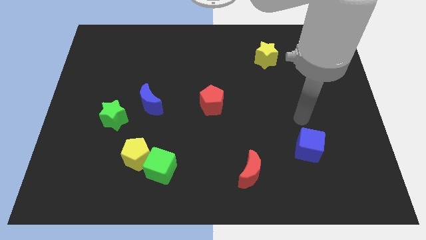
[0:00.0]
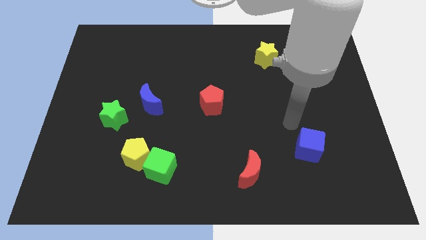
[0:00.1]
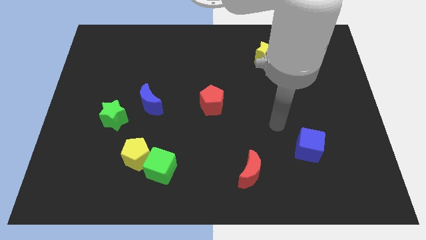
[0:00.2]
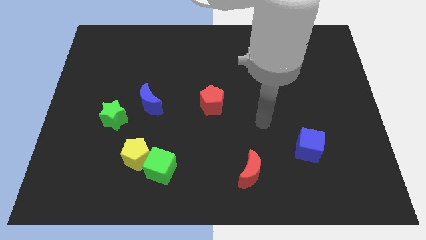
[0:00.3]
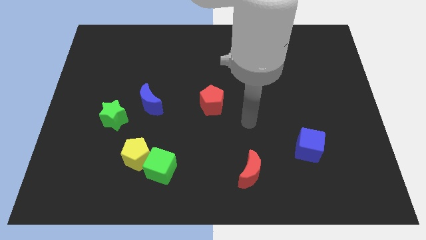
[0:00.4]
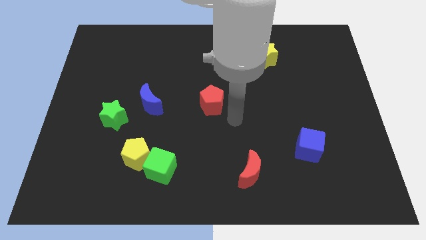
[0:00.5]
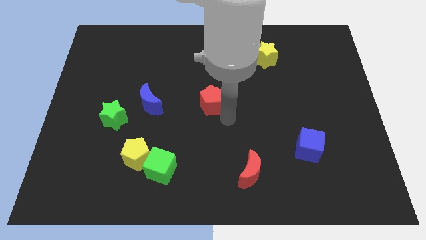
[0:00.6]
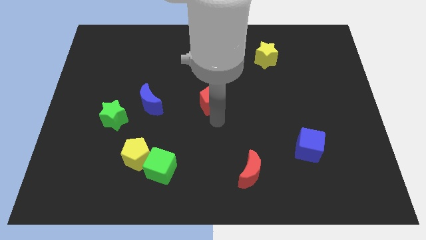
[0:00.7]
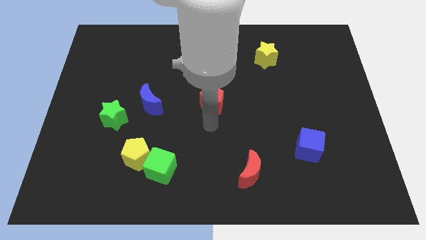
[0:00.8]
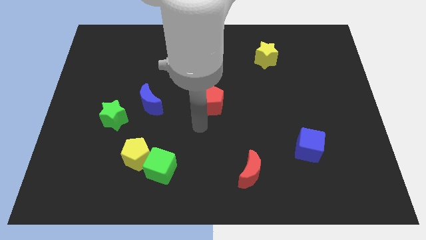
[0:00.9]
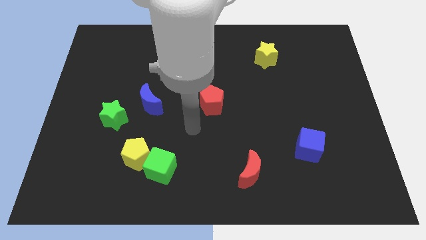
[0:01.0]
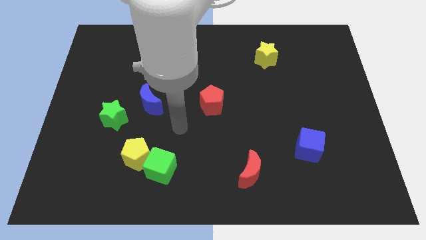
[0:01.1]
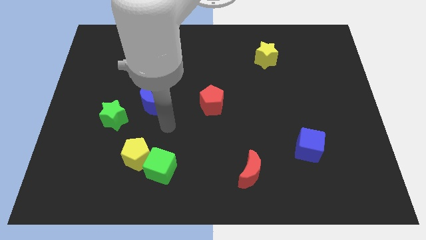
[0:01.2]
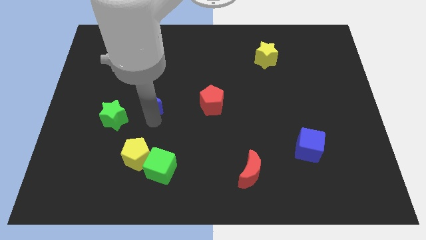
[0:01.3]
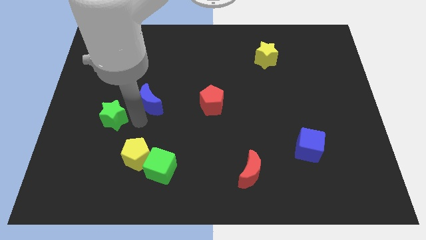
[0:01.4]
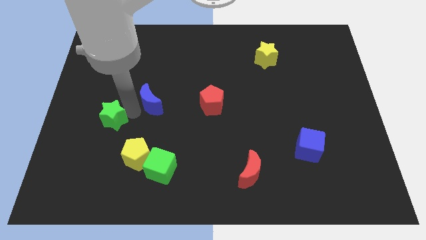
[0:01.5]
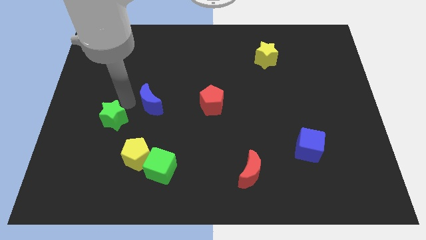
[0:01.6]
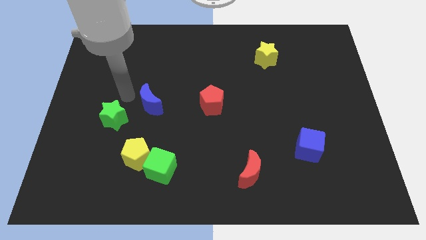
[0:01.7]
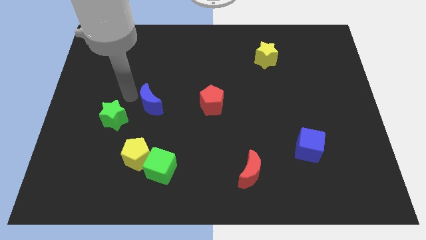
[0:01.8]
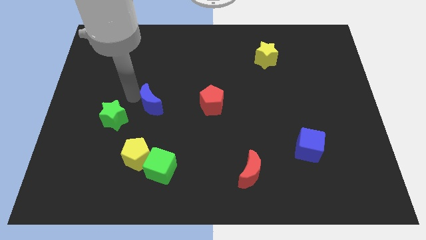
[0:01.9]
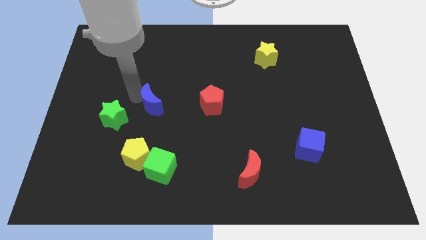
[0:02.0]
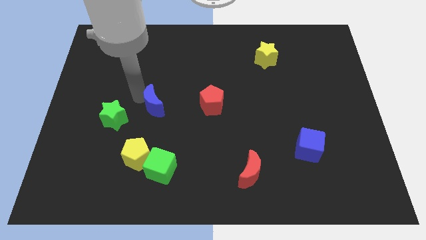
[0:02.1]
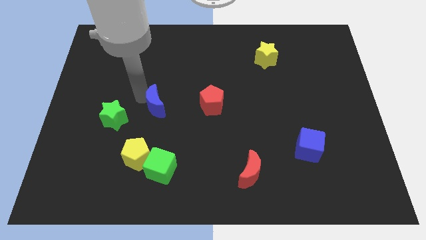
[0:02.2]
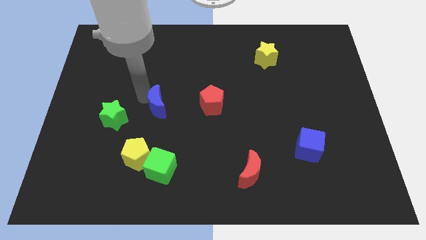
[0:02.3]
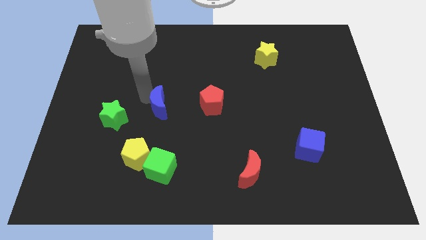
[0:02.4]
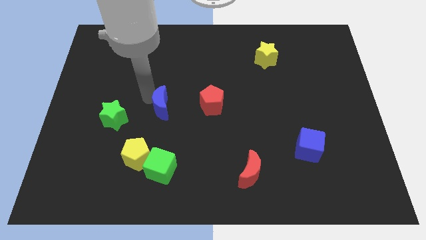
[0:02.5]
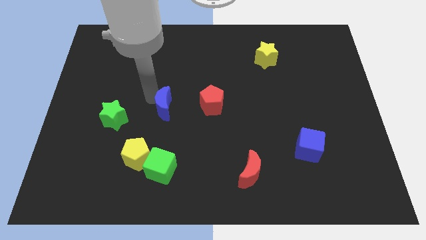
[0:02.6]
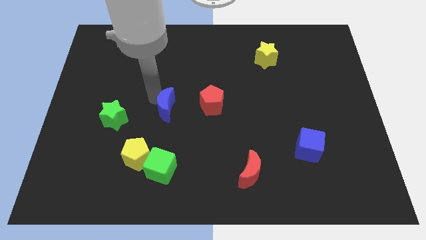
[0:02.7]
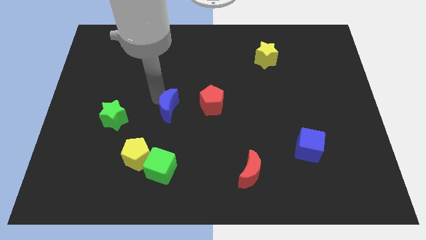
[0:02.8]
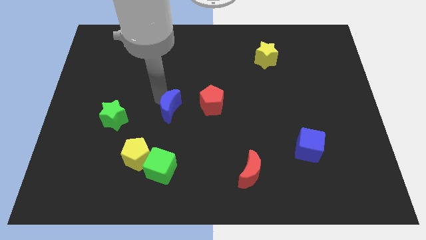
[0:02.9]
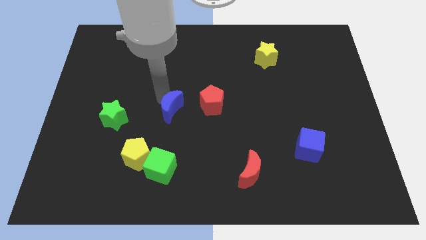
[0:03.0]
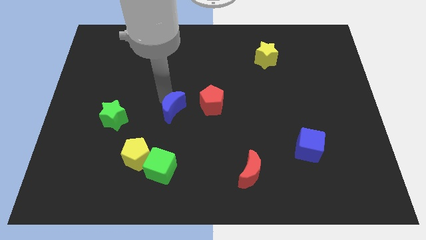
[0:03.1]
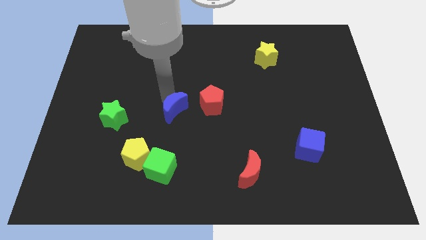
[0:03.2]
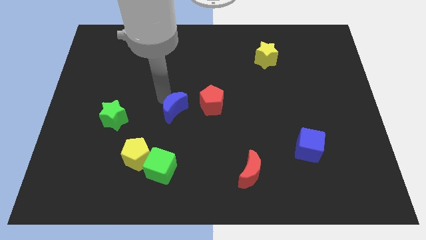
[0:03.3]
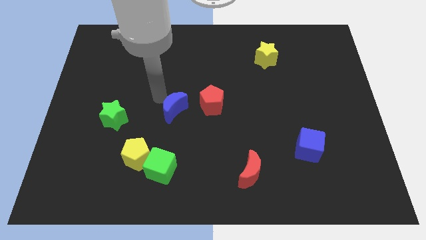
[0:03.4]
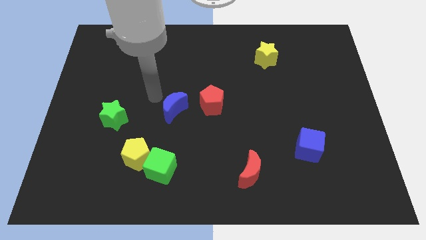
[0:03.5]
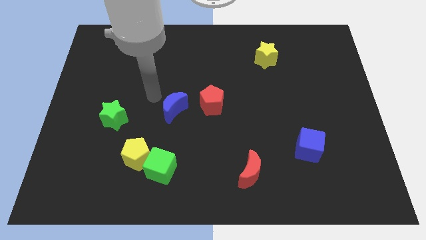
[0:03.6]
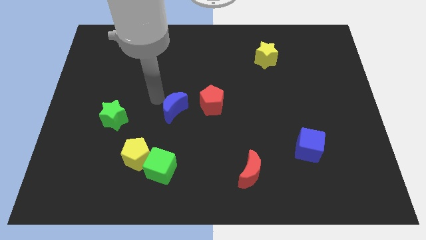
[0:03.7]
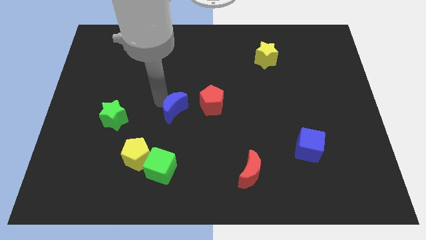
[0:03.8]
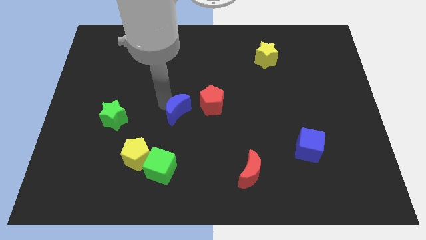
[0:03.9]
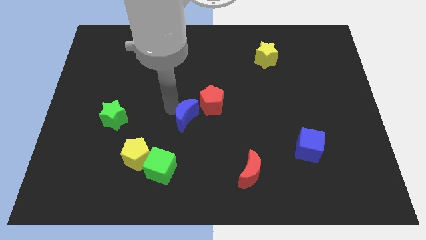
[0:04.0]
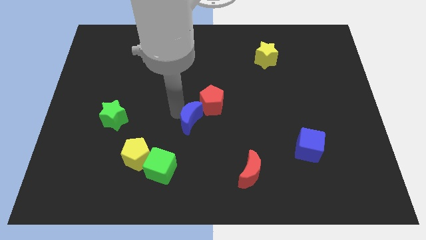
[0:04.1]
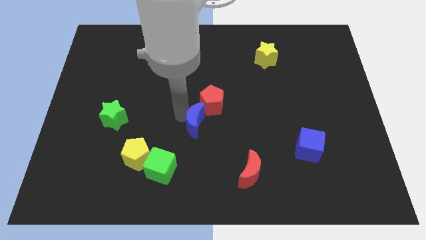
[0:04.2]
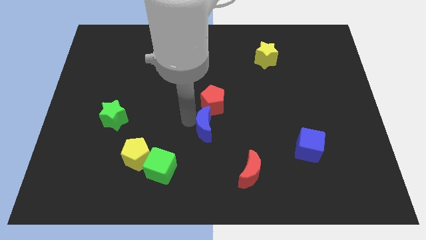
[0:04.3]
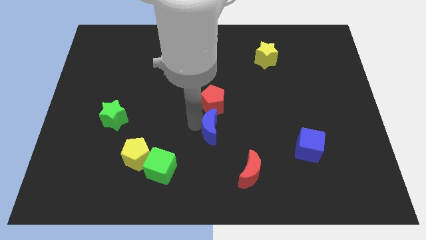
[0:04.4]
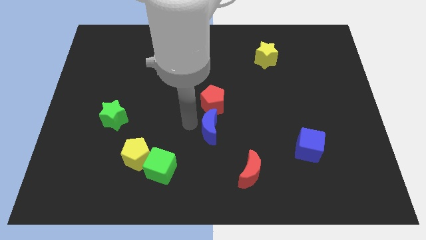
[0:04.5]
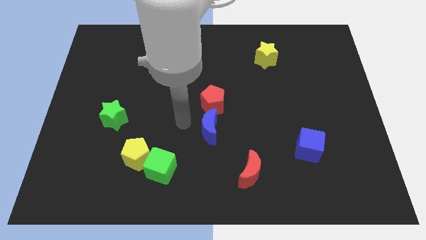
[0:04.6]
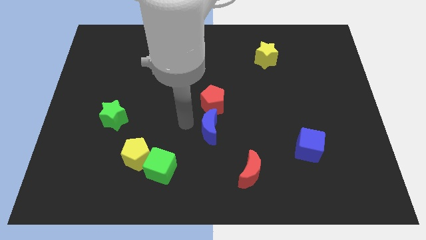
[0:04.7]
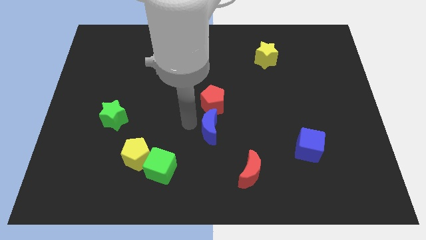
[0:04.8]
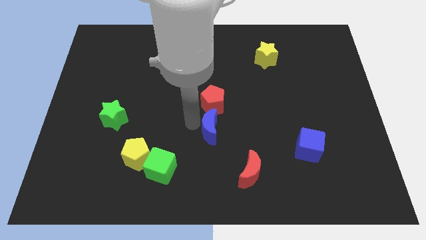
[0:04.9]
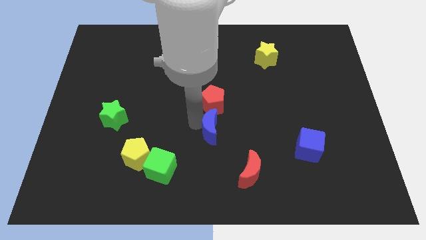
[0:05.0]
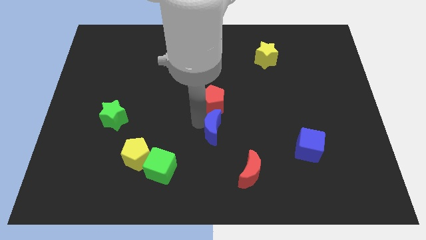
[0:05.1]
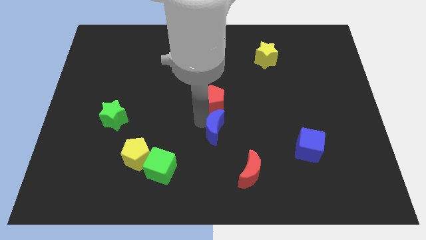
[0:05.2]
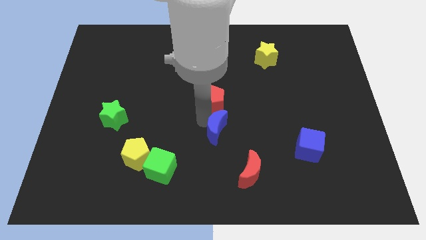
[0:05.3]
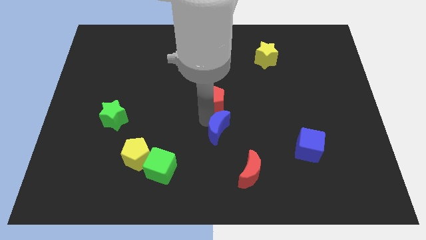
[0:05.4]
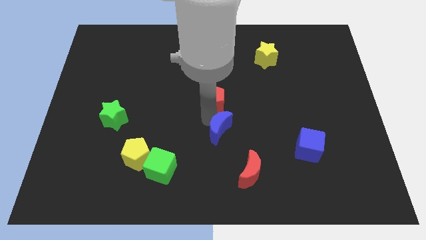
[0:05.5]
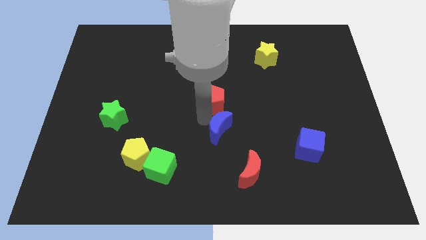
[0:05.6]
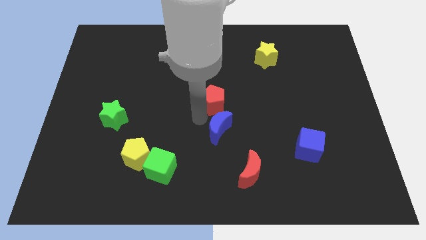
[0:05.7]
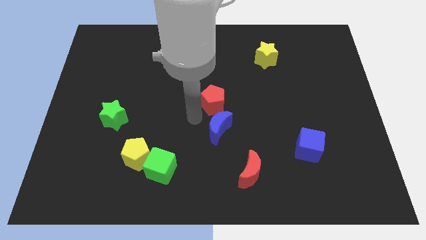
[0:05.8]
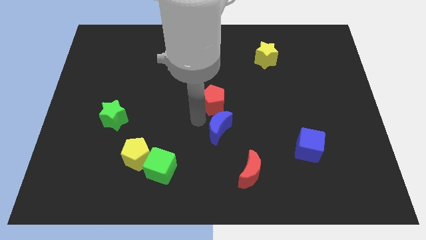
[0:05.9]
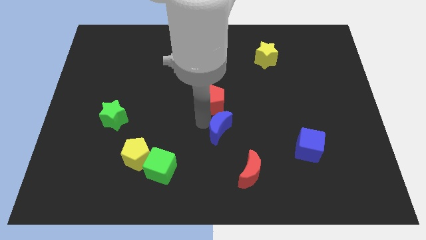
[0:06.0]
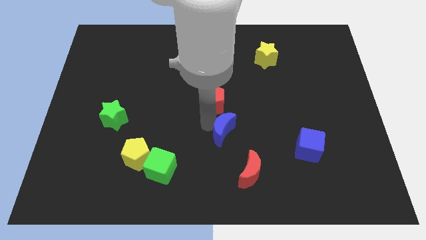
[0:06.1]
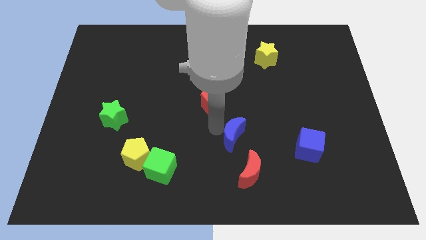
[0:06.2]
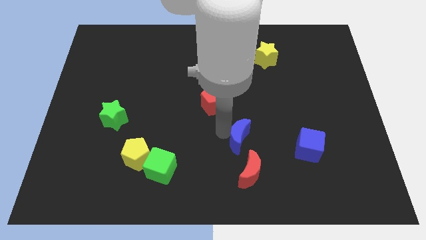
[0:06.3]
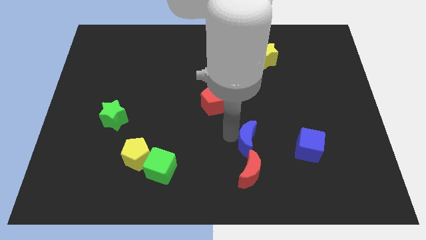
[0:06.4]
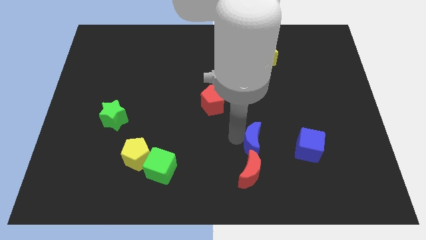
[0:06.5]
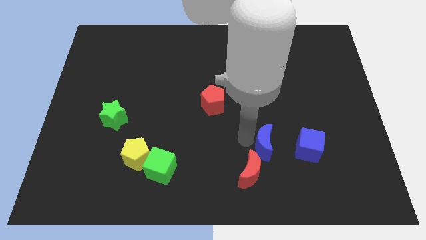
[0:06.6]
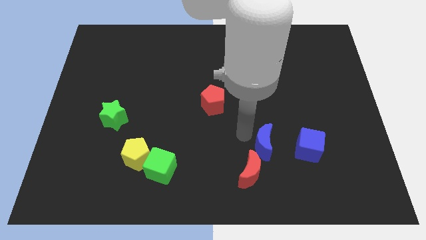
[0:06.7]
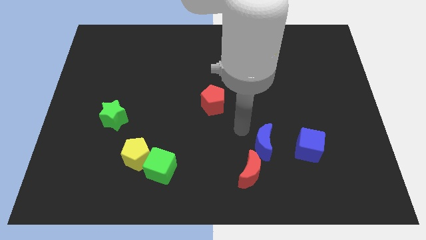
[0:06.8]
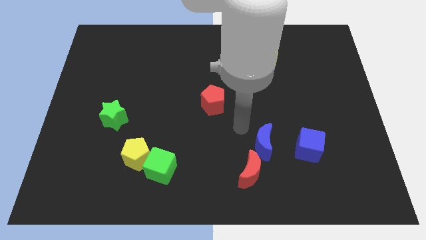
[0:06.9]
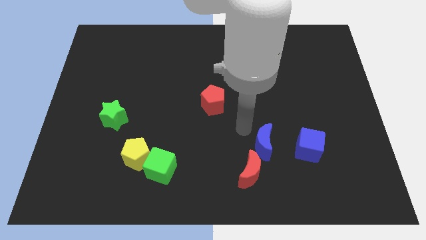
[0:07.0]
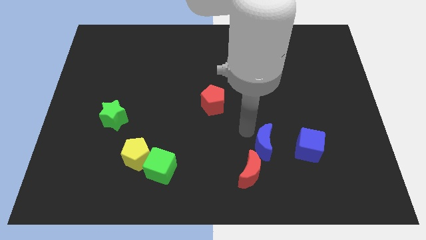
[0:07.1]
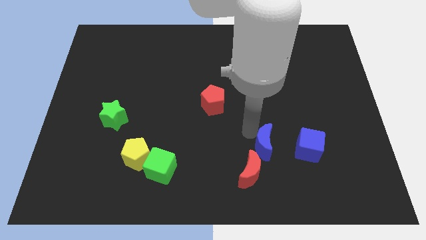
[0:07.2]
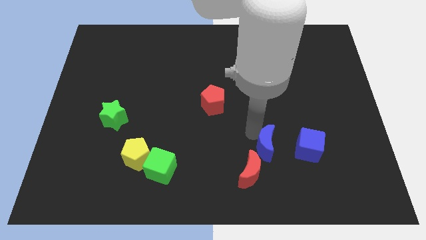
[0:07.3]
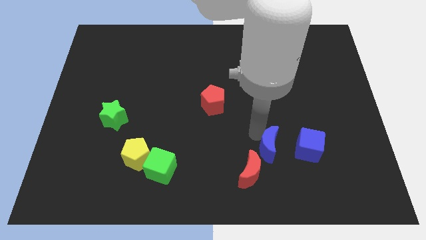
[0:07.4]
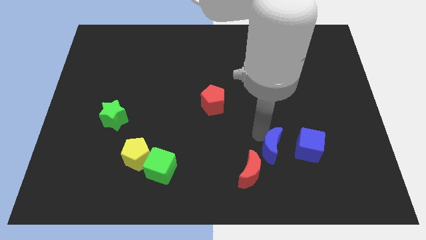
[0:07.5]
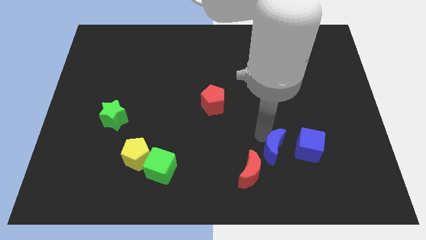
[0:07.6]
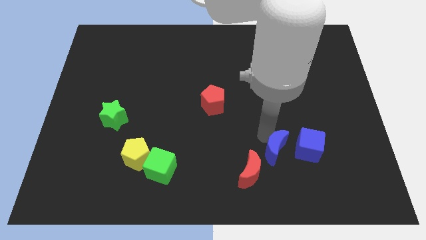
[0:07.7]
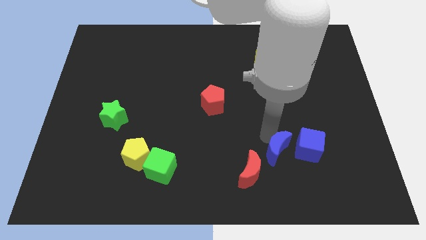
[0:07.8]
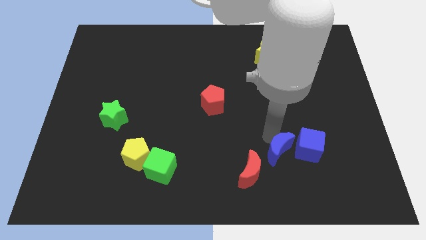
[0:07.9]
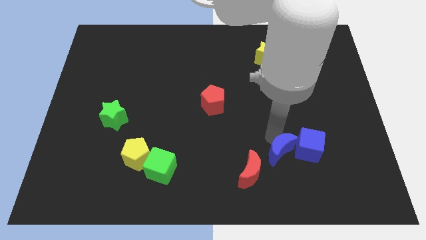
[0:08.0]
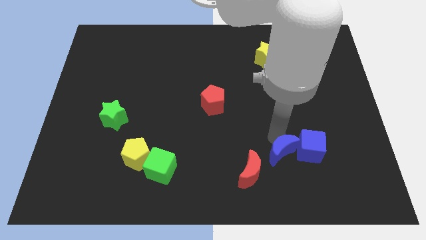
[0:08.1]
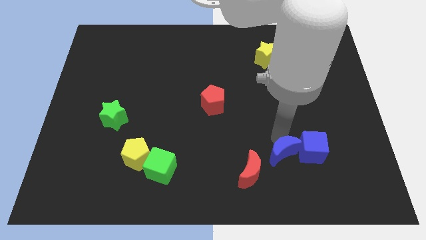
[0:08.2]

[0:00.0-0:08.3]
push the blue moon right of the red moon
